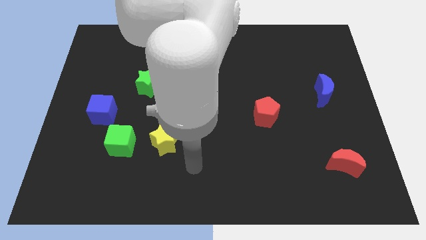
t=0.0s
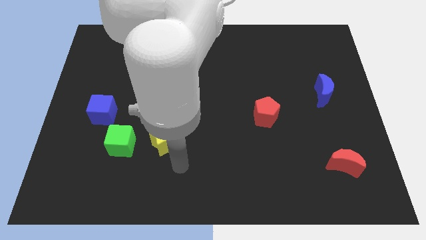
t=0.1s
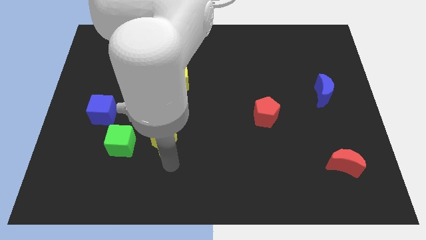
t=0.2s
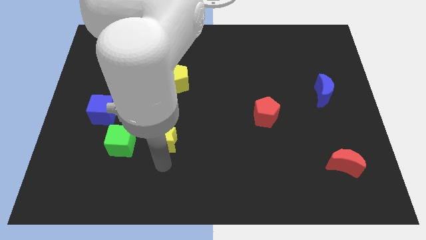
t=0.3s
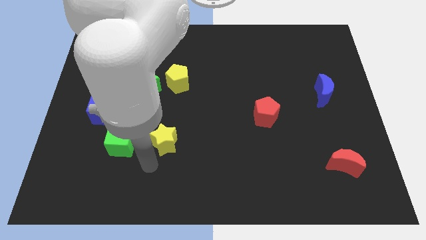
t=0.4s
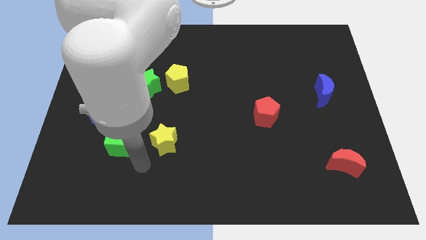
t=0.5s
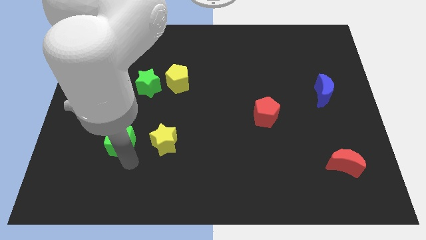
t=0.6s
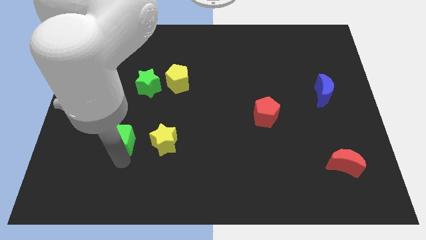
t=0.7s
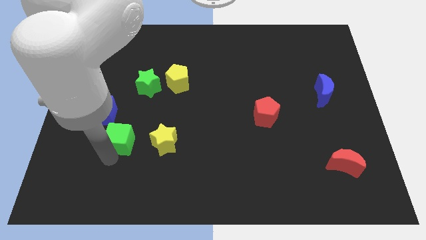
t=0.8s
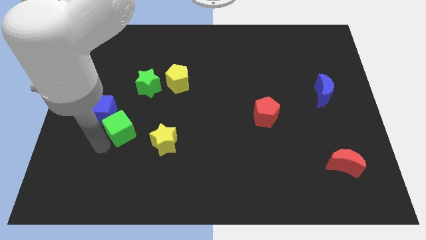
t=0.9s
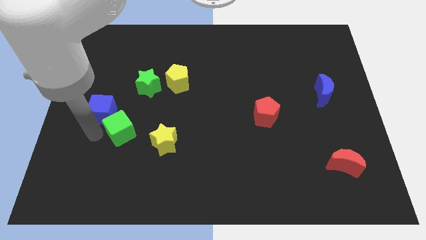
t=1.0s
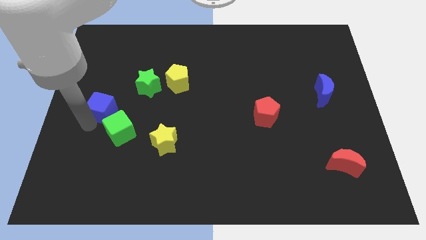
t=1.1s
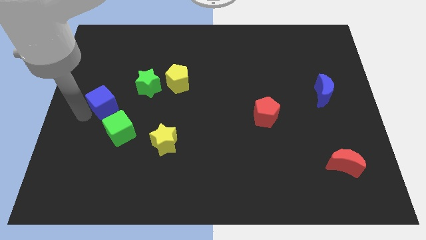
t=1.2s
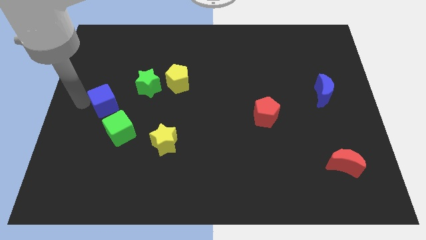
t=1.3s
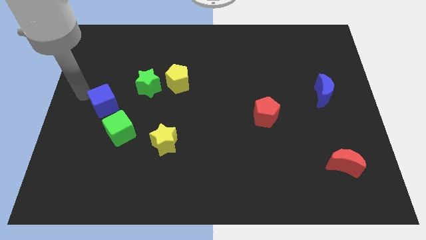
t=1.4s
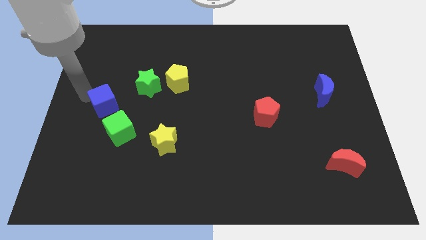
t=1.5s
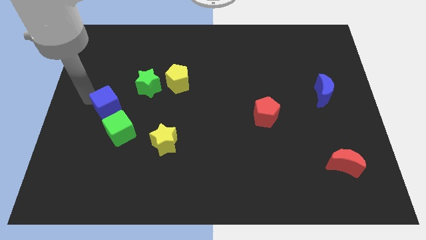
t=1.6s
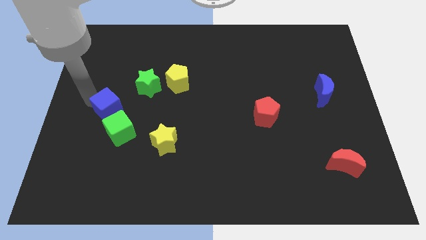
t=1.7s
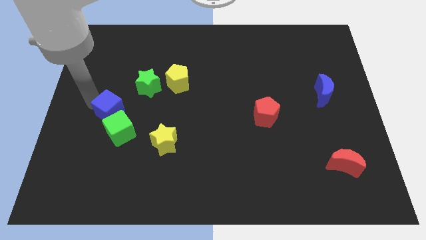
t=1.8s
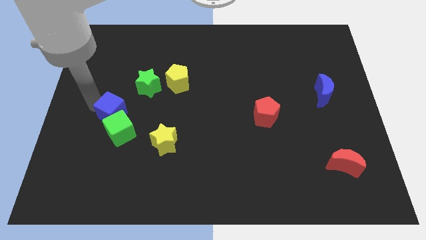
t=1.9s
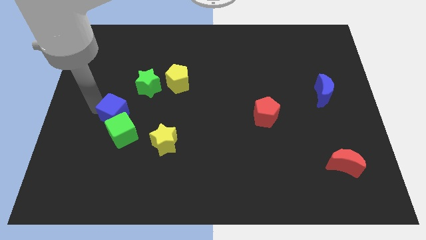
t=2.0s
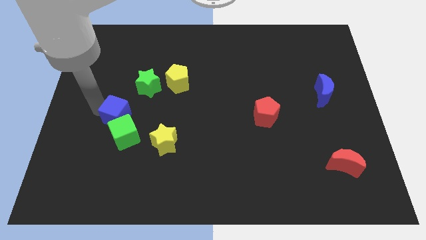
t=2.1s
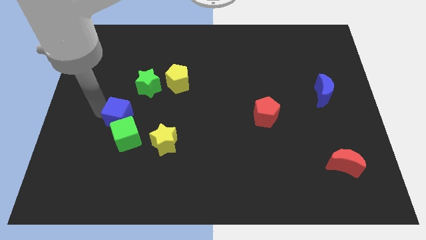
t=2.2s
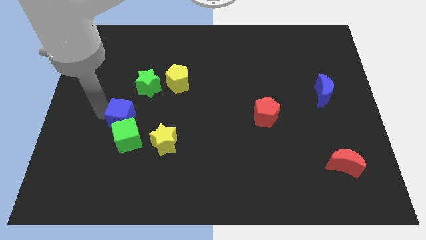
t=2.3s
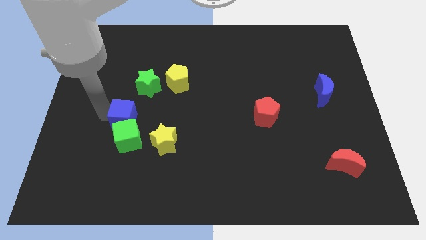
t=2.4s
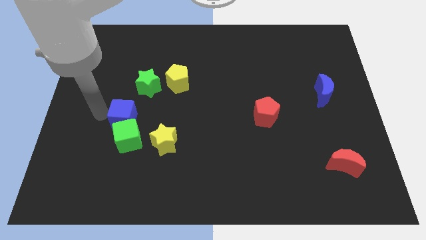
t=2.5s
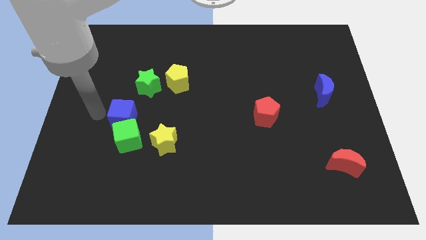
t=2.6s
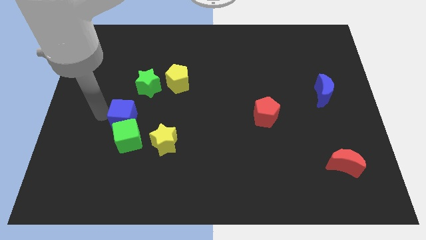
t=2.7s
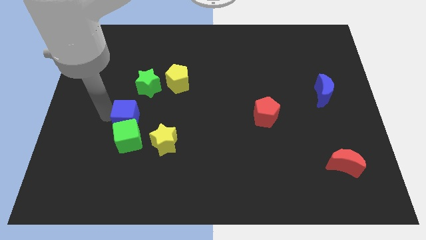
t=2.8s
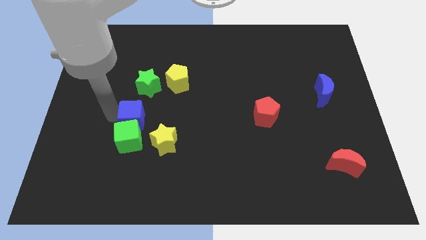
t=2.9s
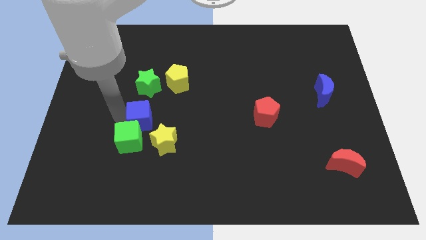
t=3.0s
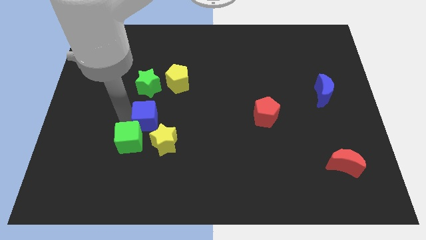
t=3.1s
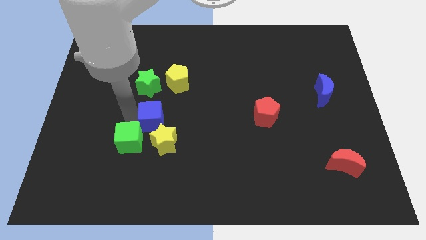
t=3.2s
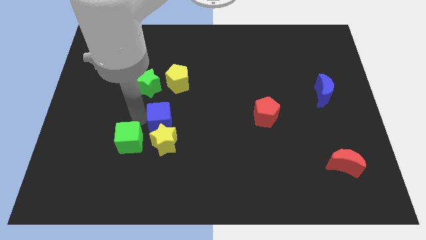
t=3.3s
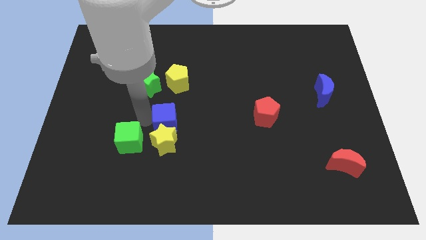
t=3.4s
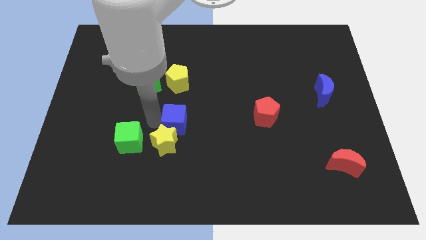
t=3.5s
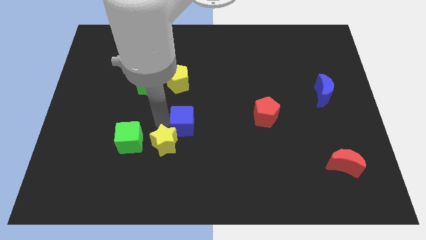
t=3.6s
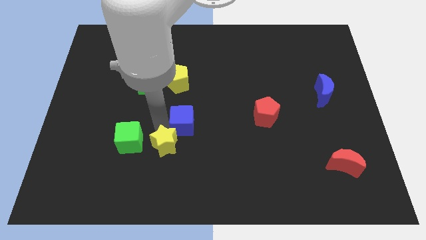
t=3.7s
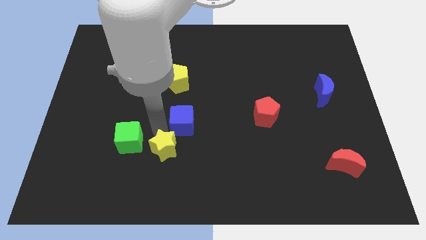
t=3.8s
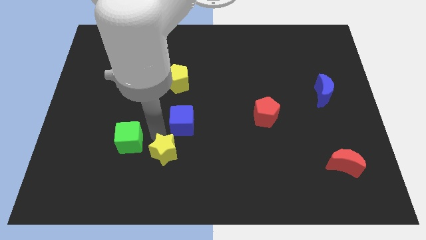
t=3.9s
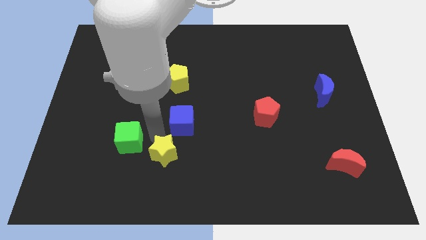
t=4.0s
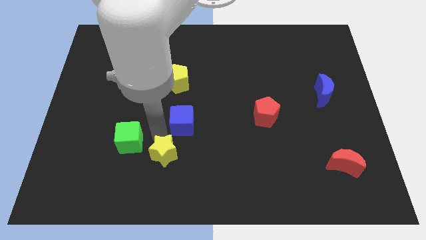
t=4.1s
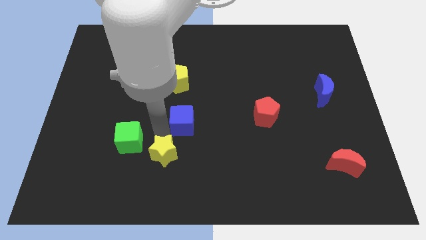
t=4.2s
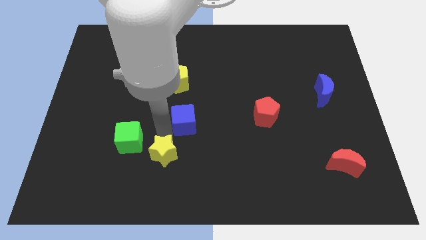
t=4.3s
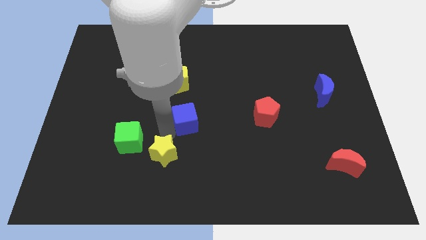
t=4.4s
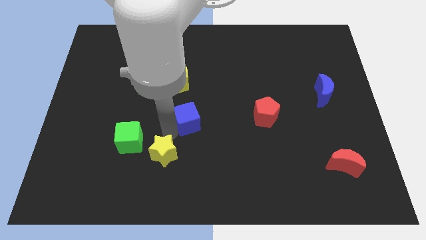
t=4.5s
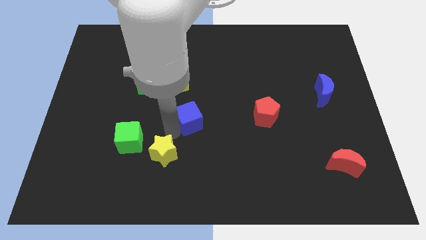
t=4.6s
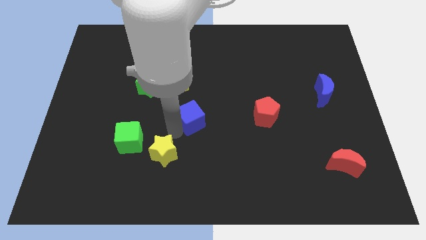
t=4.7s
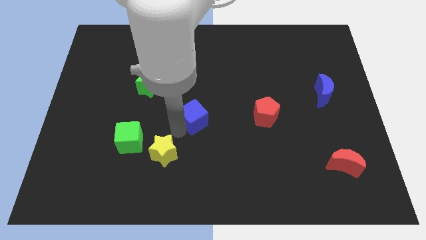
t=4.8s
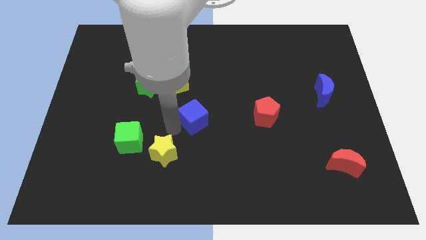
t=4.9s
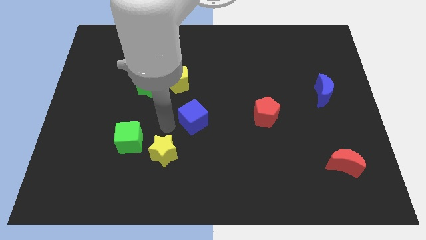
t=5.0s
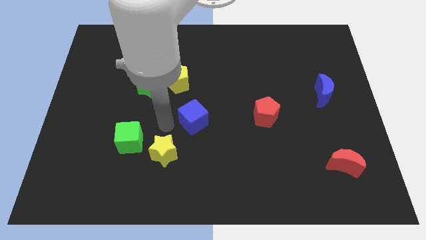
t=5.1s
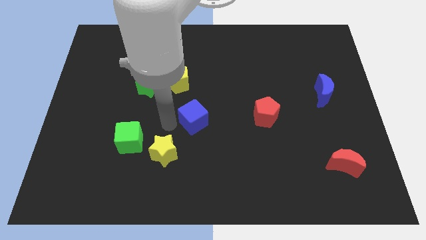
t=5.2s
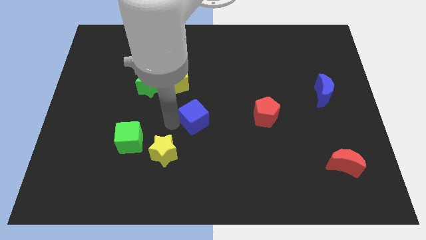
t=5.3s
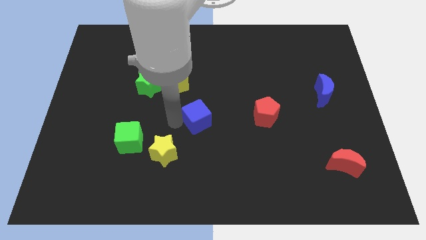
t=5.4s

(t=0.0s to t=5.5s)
put the blue cube just left of the red pentagon
